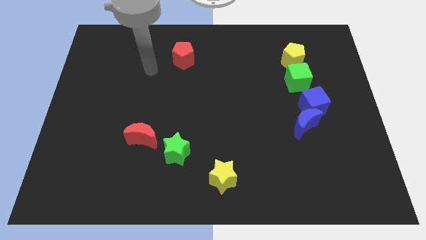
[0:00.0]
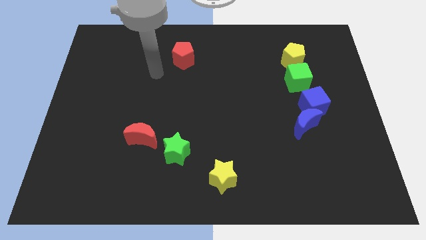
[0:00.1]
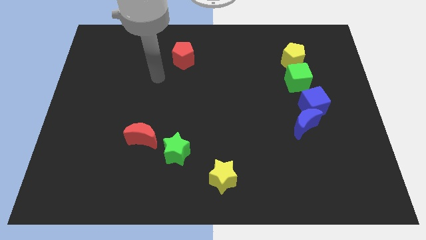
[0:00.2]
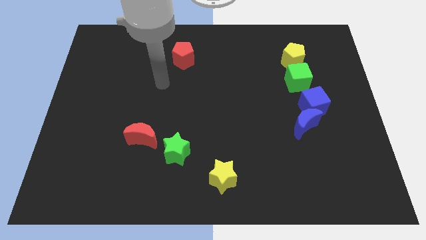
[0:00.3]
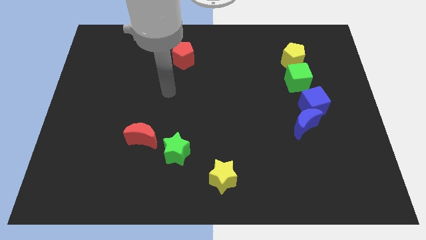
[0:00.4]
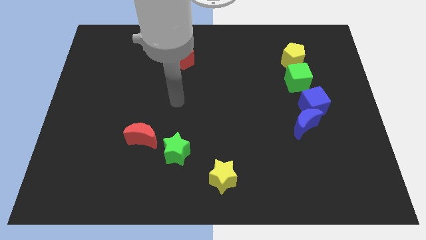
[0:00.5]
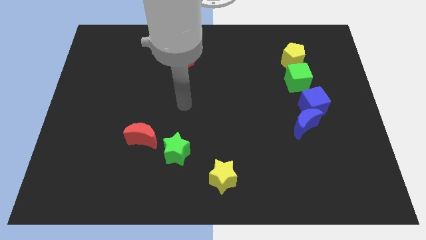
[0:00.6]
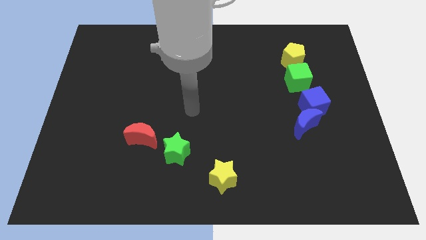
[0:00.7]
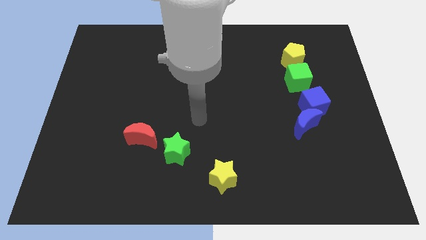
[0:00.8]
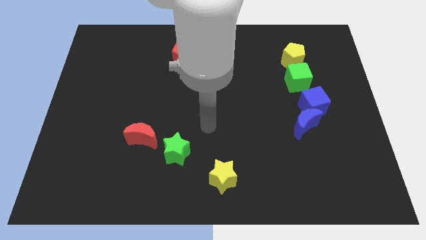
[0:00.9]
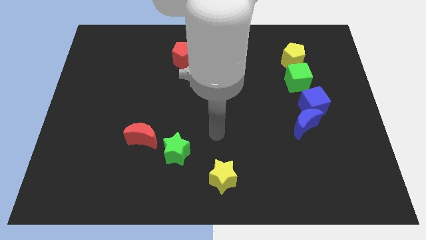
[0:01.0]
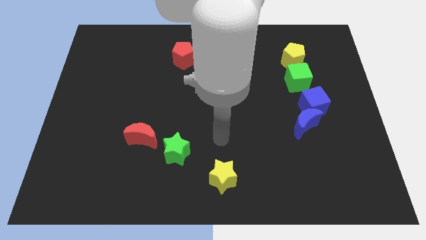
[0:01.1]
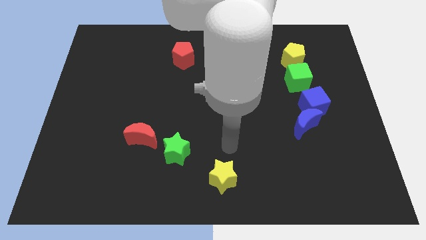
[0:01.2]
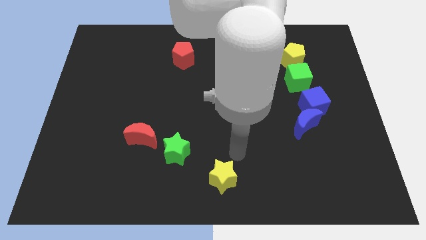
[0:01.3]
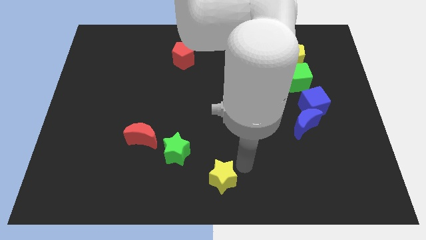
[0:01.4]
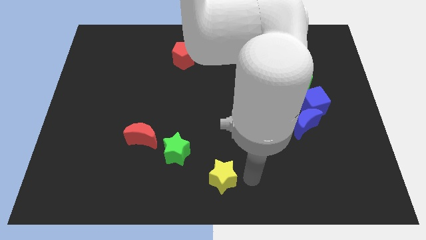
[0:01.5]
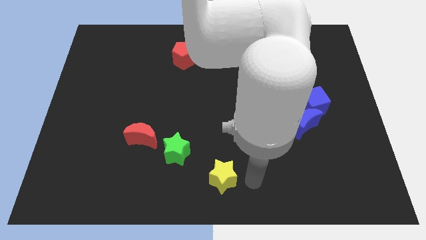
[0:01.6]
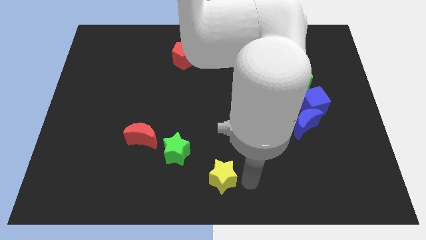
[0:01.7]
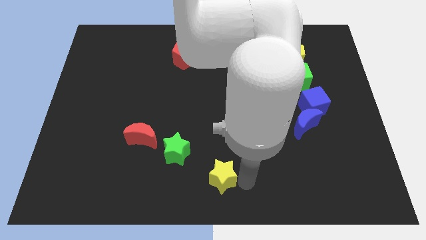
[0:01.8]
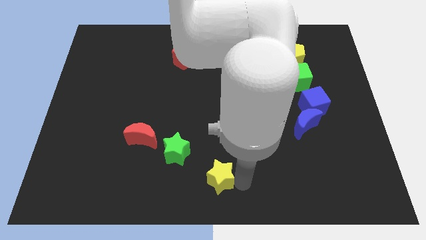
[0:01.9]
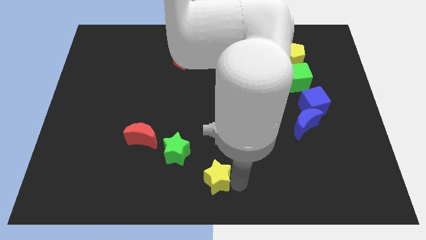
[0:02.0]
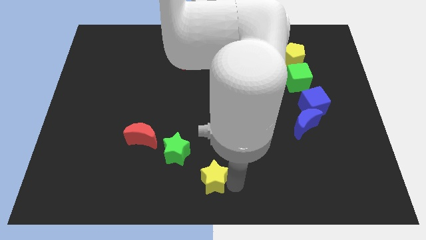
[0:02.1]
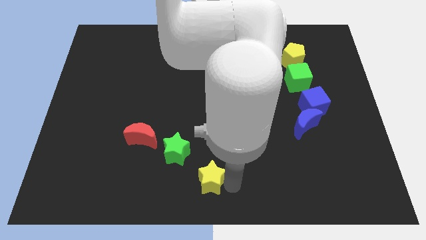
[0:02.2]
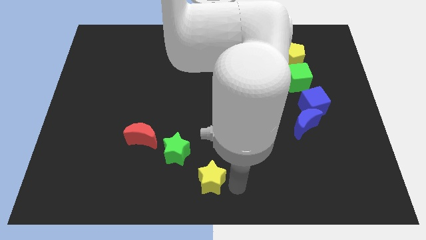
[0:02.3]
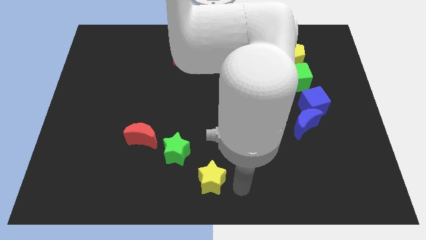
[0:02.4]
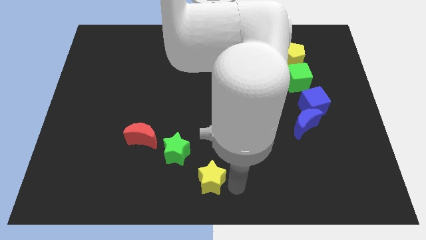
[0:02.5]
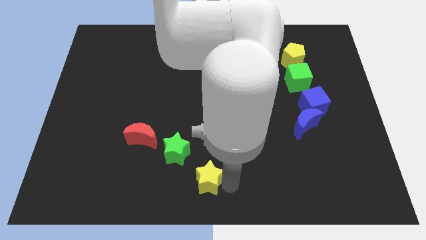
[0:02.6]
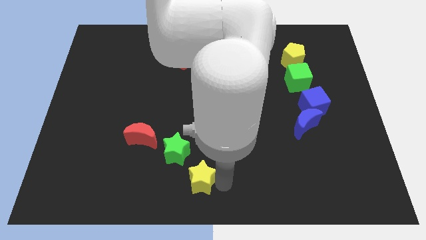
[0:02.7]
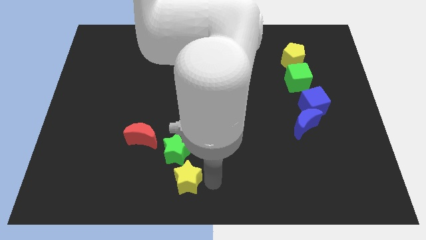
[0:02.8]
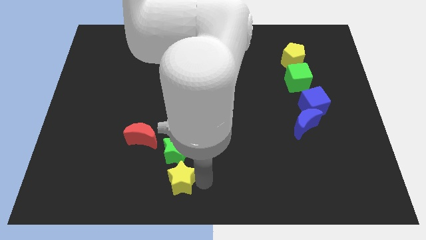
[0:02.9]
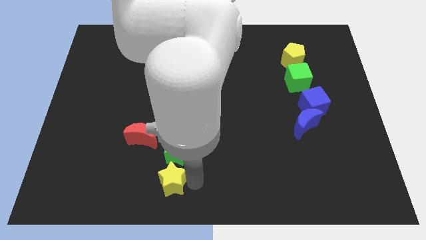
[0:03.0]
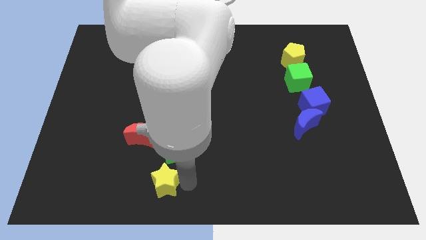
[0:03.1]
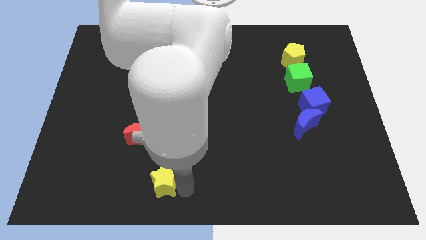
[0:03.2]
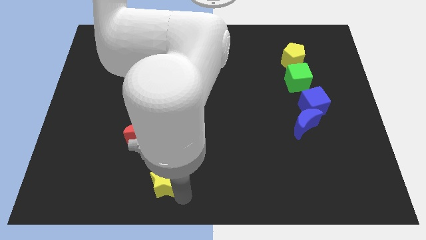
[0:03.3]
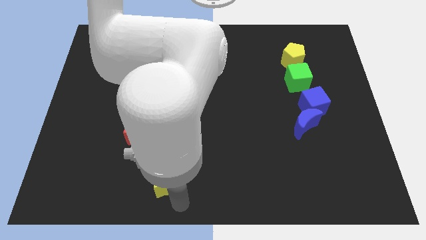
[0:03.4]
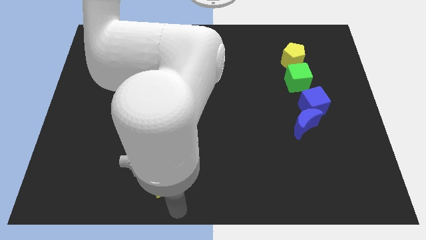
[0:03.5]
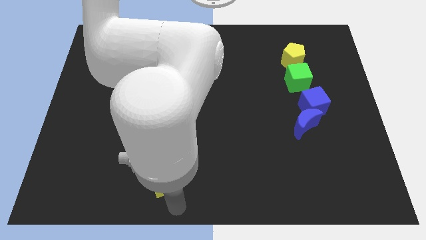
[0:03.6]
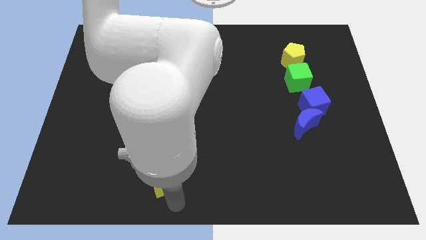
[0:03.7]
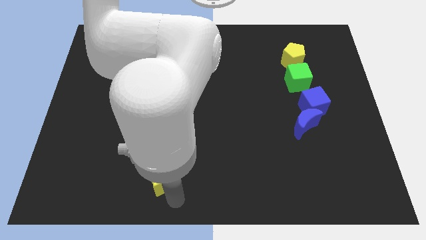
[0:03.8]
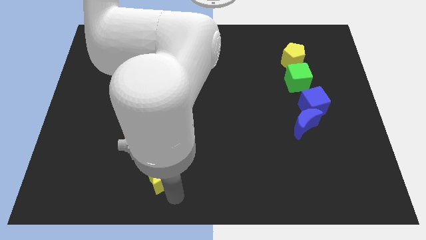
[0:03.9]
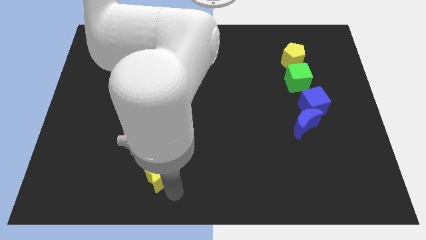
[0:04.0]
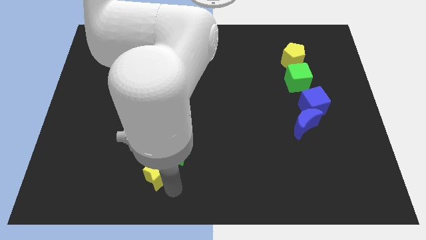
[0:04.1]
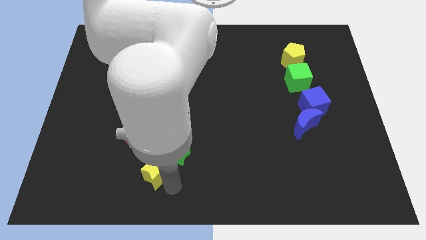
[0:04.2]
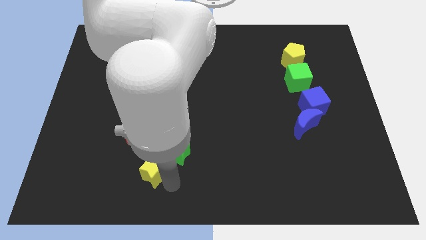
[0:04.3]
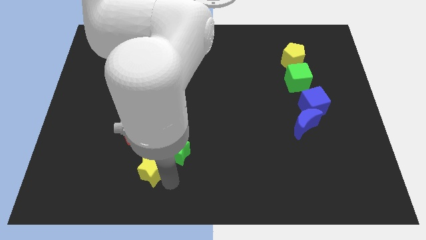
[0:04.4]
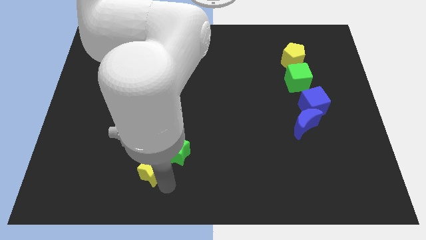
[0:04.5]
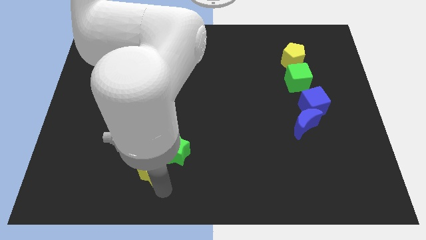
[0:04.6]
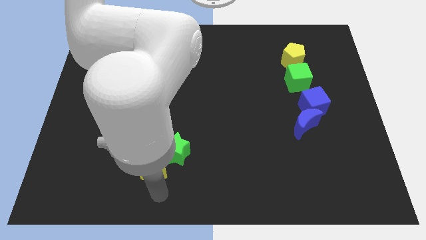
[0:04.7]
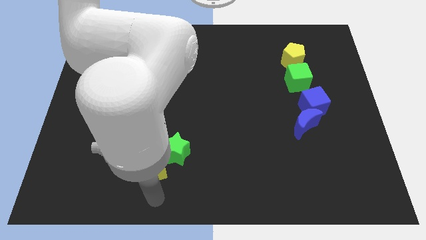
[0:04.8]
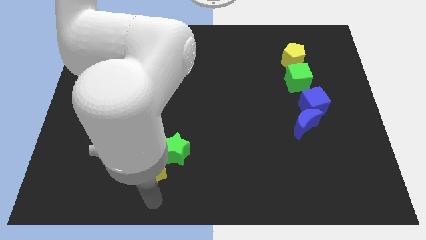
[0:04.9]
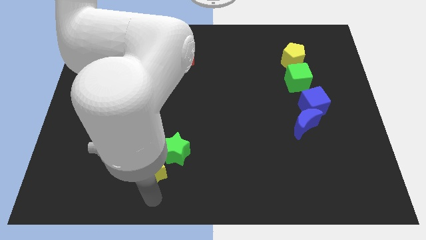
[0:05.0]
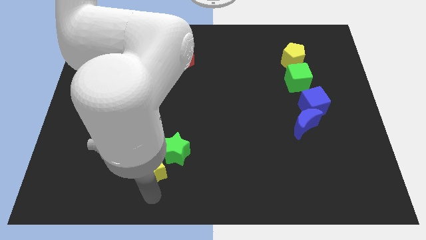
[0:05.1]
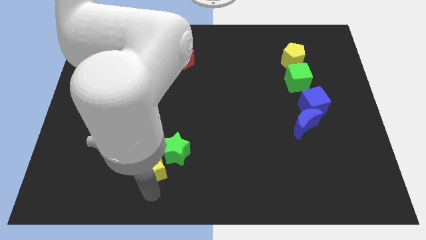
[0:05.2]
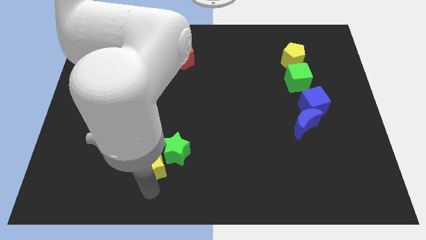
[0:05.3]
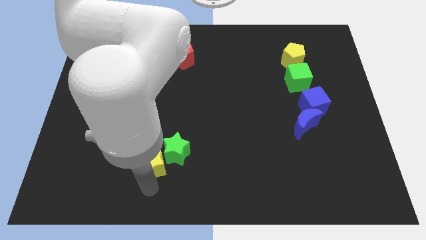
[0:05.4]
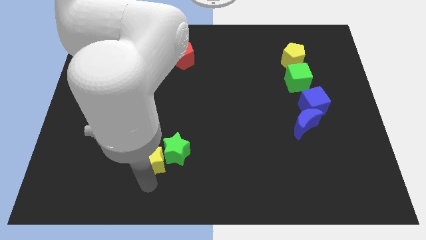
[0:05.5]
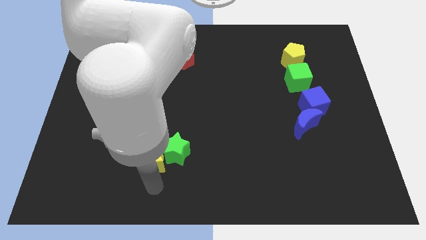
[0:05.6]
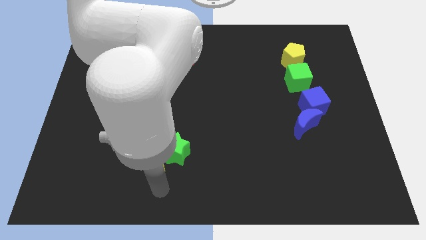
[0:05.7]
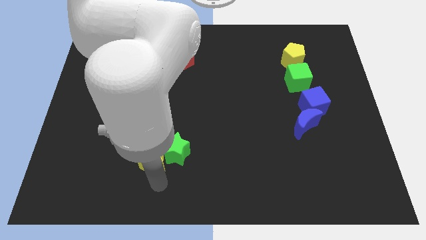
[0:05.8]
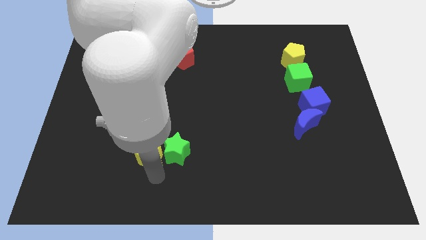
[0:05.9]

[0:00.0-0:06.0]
push the yellow star next to the red moon

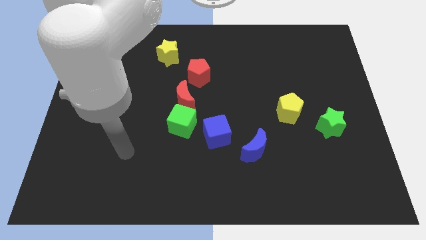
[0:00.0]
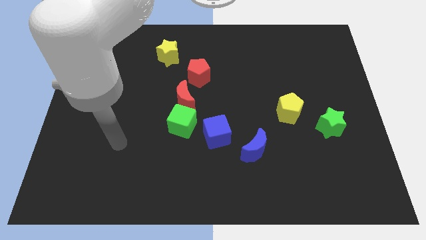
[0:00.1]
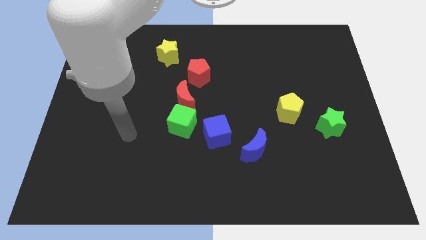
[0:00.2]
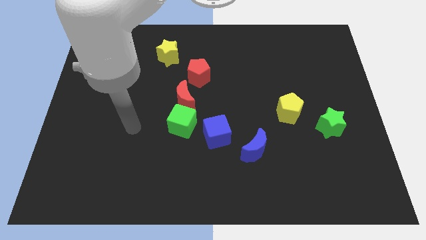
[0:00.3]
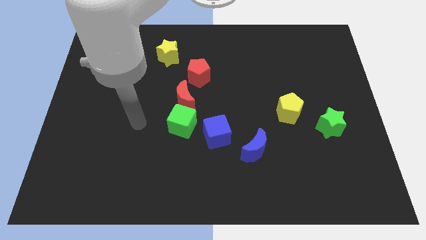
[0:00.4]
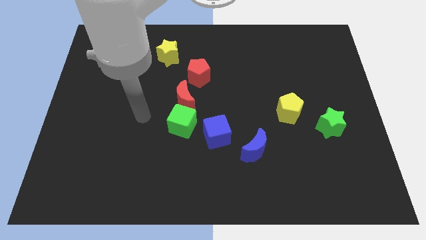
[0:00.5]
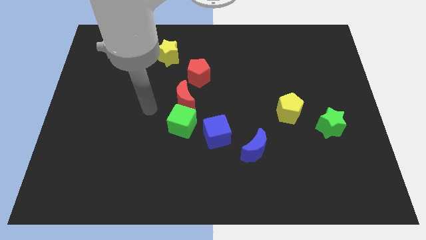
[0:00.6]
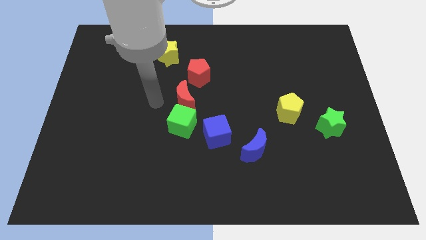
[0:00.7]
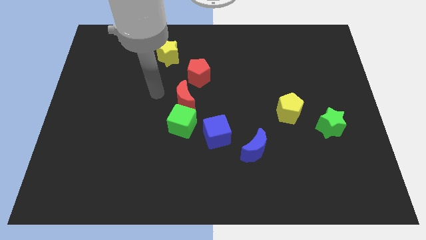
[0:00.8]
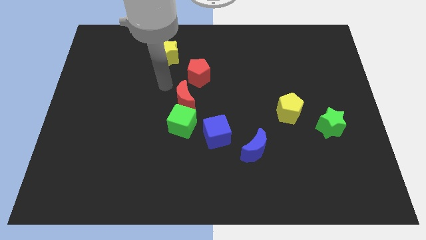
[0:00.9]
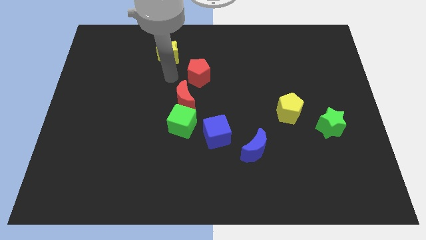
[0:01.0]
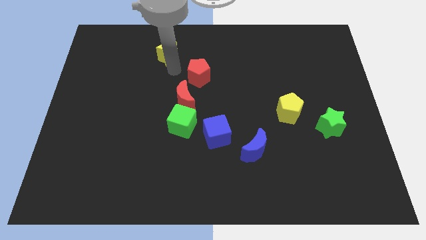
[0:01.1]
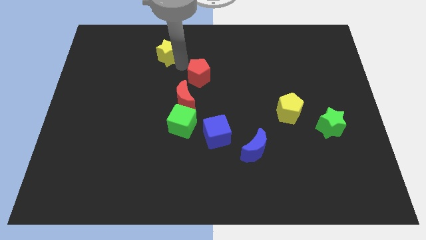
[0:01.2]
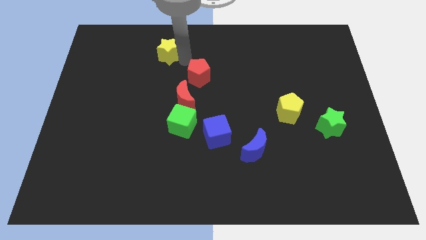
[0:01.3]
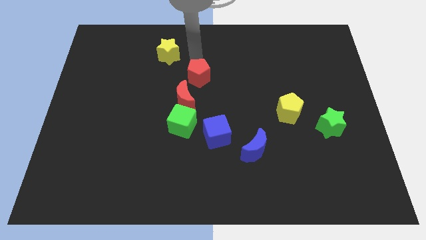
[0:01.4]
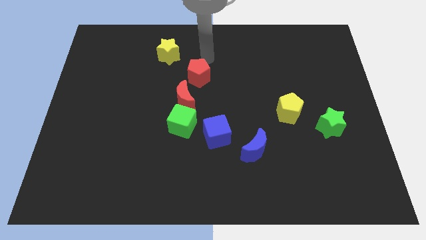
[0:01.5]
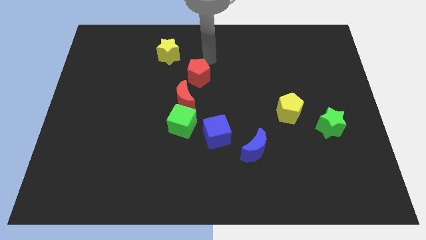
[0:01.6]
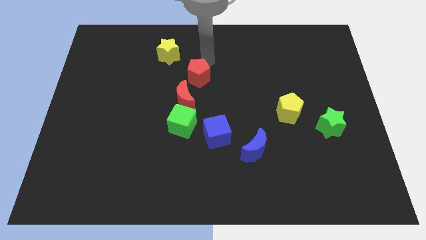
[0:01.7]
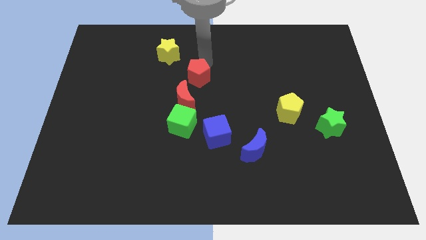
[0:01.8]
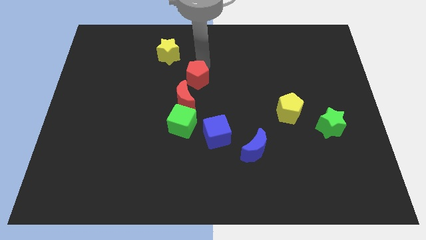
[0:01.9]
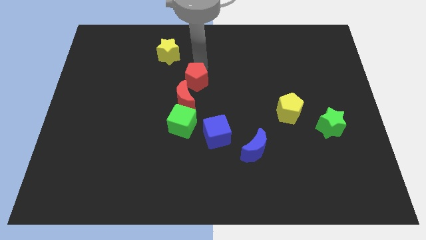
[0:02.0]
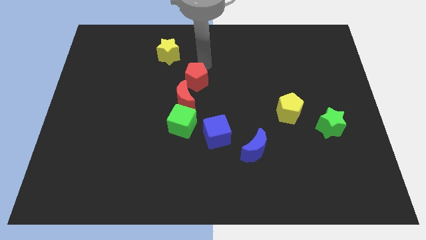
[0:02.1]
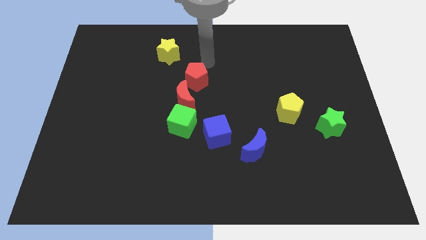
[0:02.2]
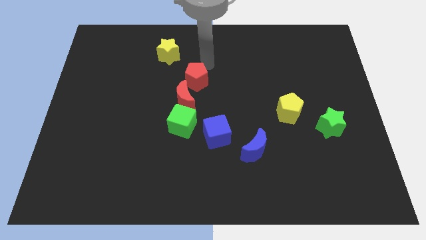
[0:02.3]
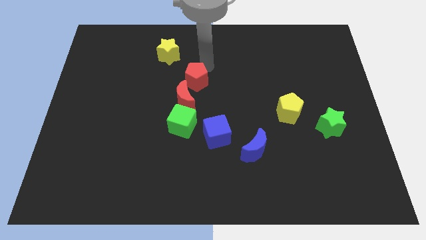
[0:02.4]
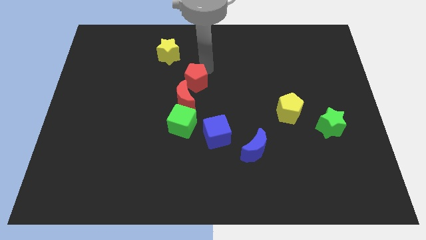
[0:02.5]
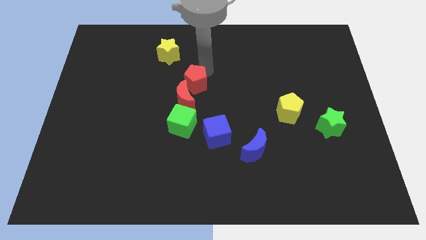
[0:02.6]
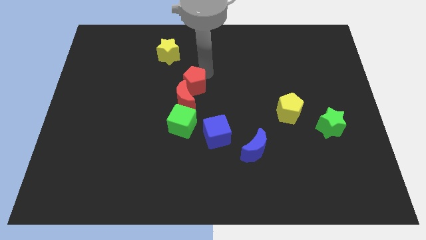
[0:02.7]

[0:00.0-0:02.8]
slide the red pentagon close to the red moon
